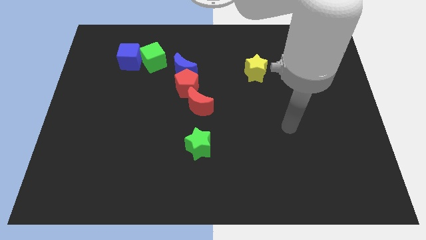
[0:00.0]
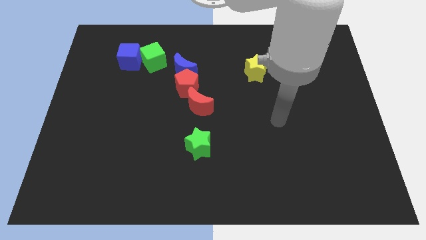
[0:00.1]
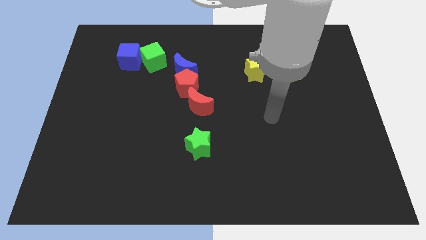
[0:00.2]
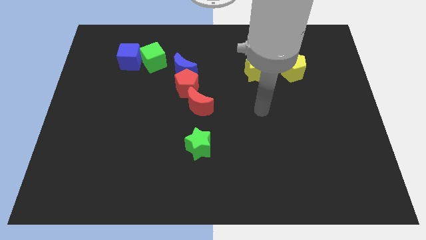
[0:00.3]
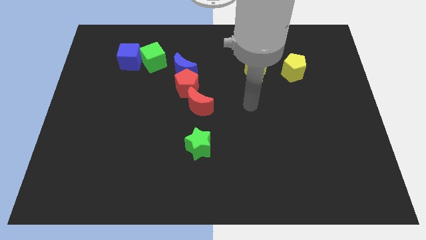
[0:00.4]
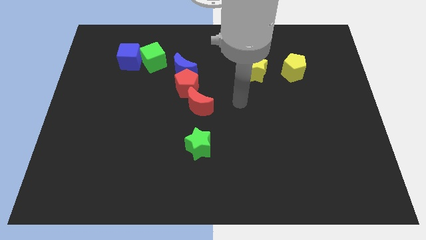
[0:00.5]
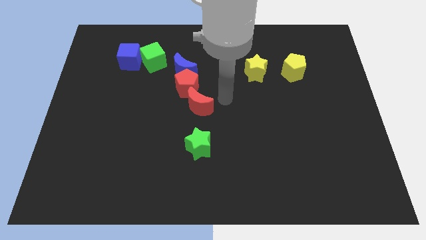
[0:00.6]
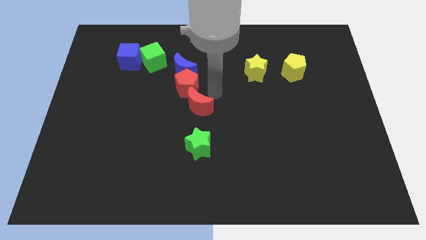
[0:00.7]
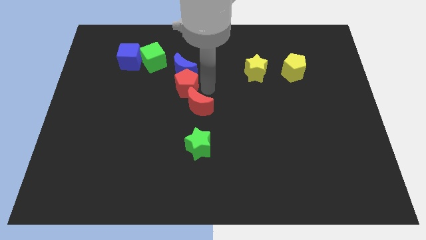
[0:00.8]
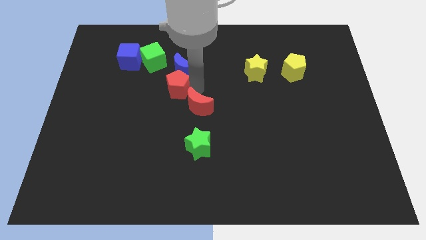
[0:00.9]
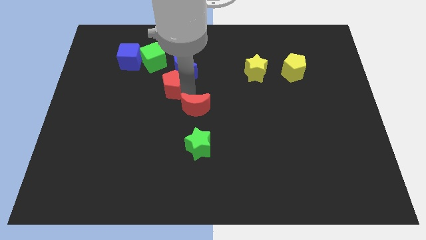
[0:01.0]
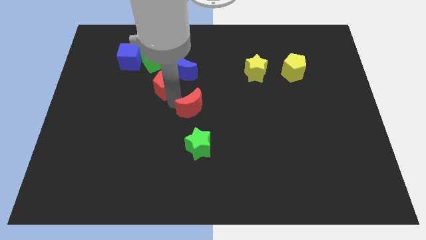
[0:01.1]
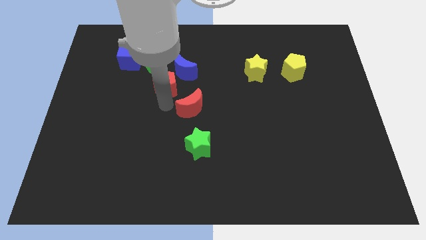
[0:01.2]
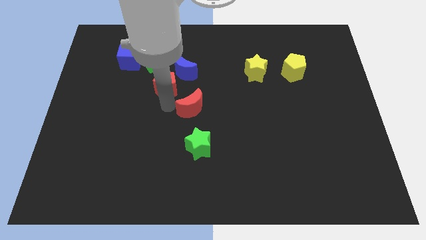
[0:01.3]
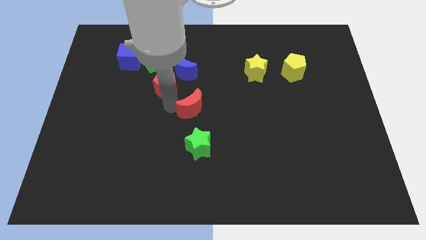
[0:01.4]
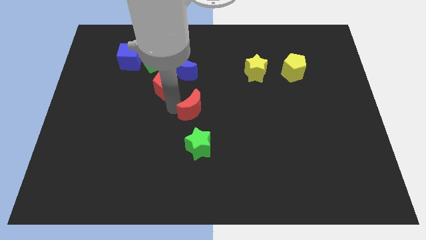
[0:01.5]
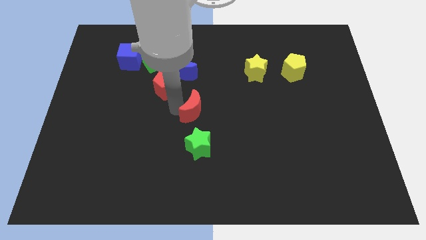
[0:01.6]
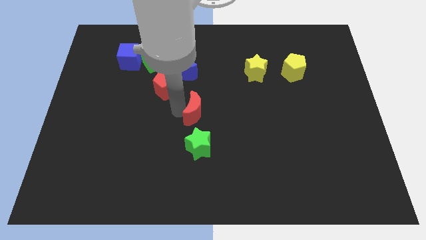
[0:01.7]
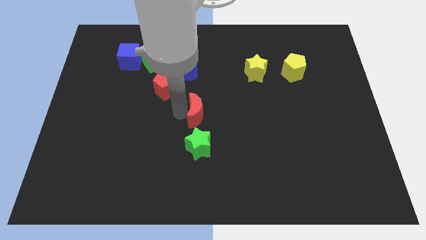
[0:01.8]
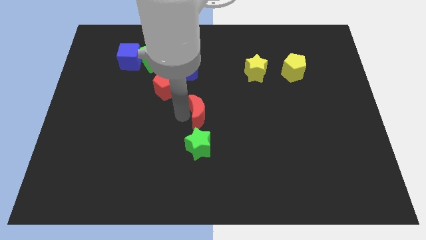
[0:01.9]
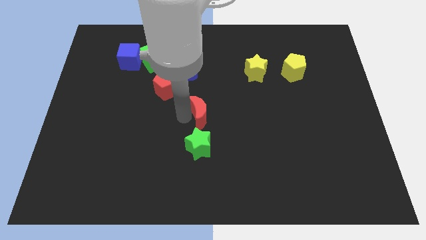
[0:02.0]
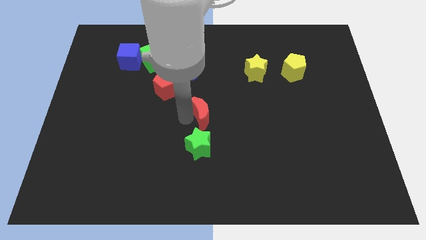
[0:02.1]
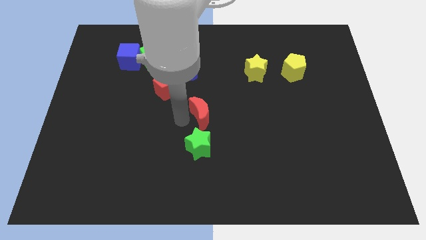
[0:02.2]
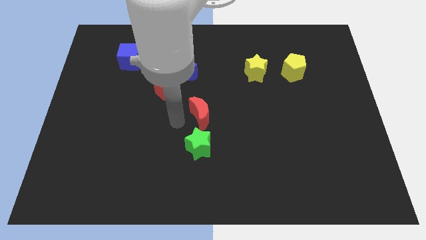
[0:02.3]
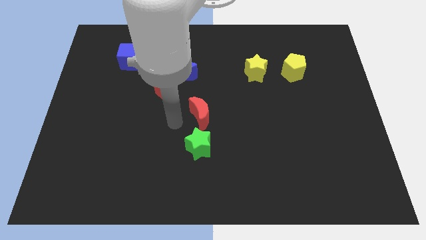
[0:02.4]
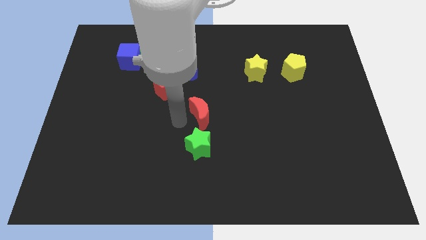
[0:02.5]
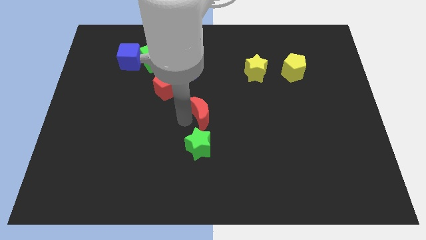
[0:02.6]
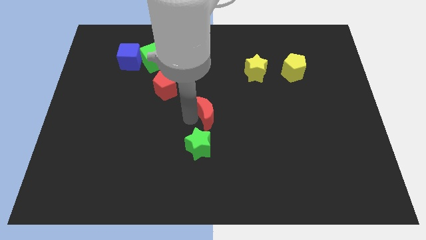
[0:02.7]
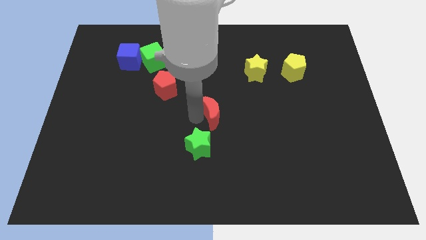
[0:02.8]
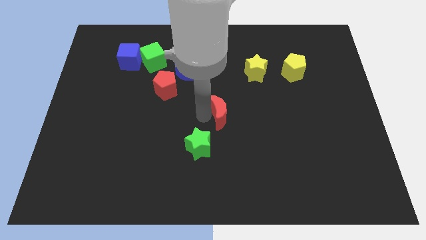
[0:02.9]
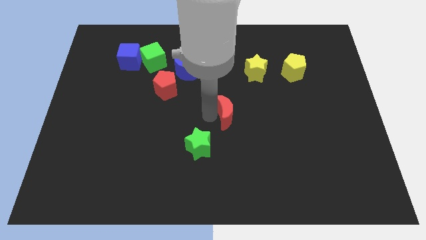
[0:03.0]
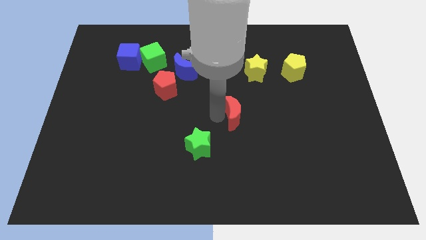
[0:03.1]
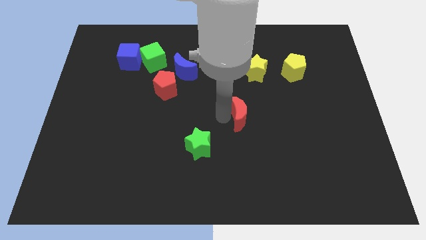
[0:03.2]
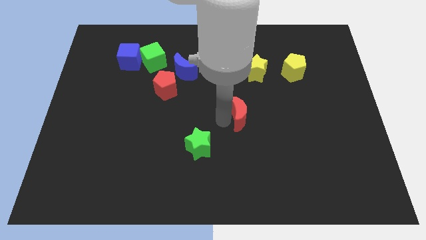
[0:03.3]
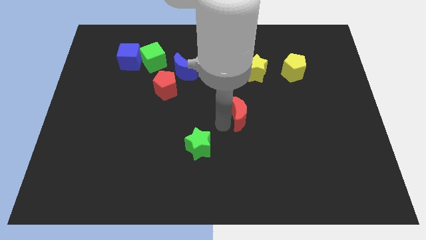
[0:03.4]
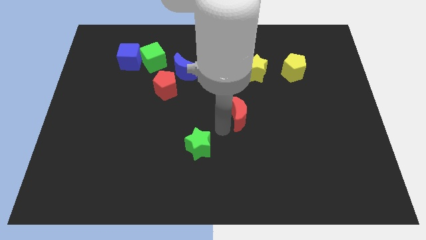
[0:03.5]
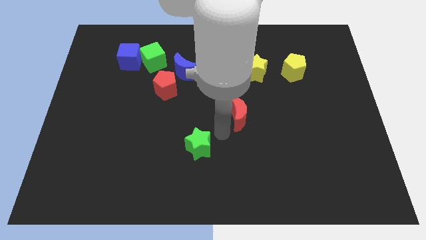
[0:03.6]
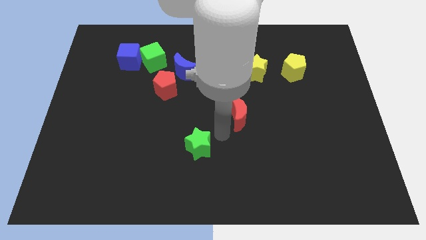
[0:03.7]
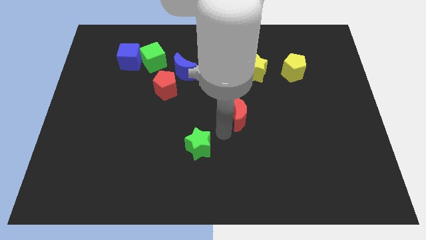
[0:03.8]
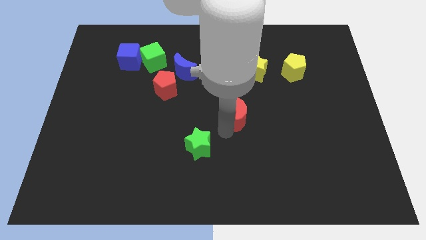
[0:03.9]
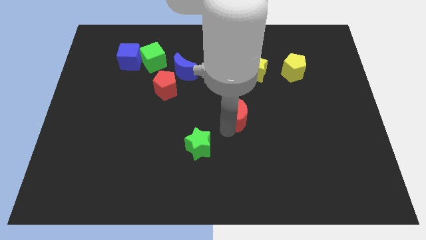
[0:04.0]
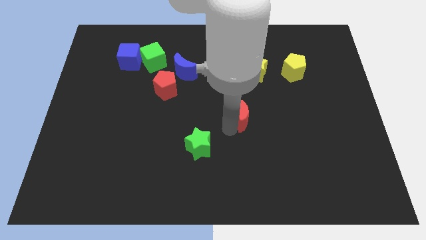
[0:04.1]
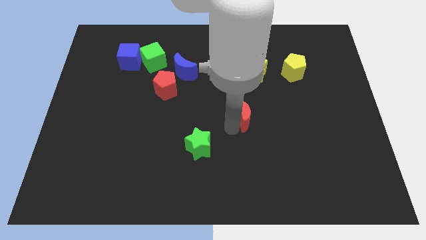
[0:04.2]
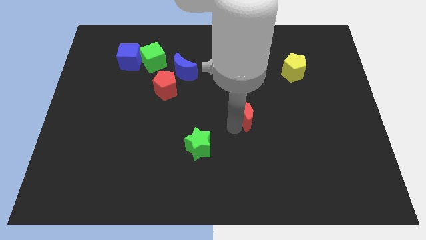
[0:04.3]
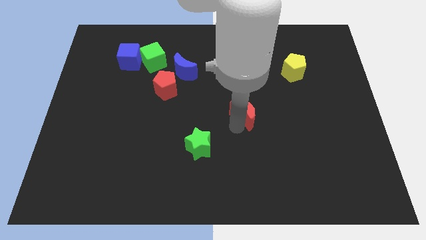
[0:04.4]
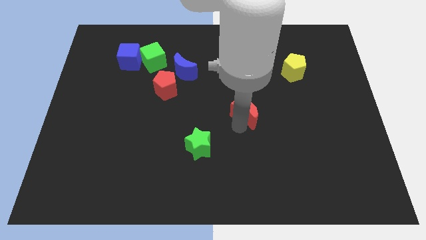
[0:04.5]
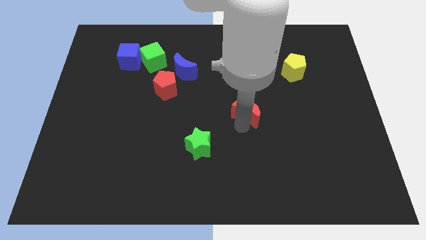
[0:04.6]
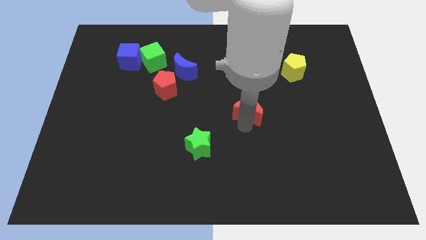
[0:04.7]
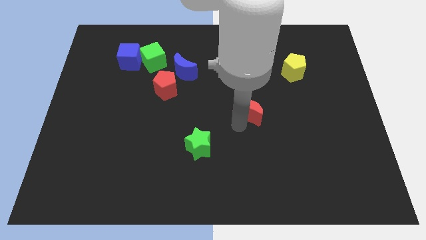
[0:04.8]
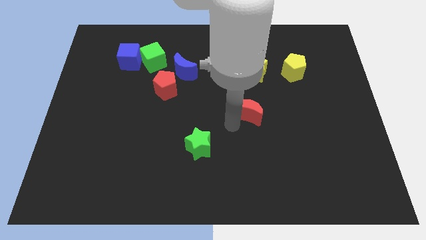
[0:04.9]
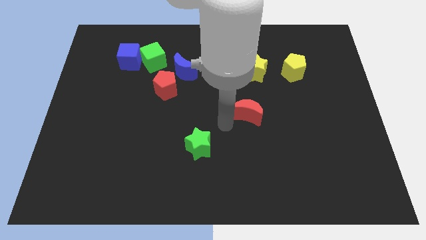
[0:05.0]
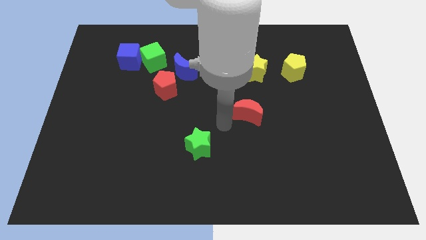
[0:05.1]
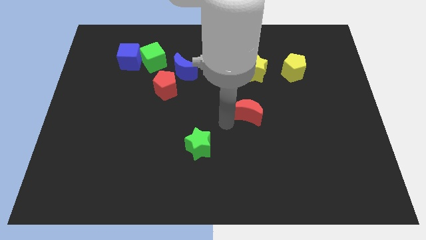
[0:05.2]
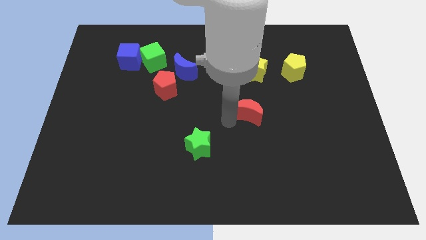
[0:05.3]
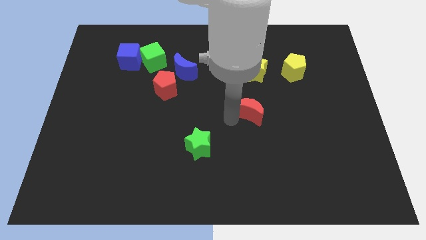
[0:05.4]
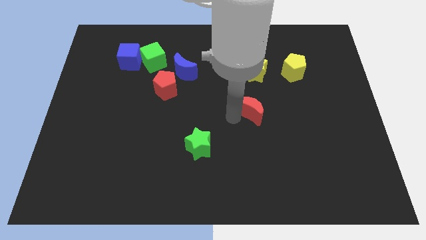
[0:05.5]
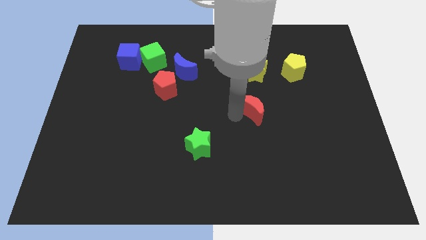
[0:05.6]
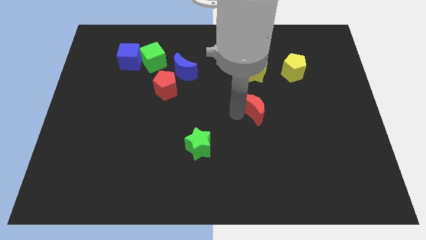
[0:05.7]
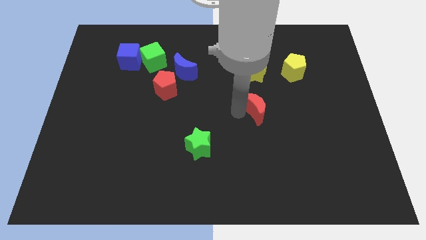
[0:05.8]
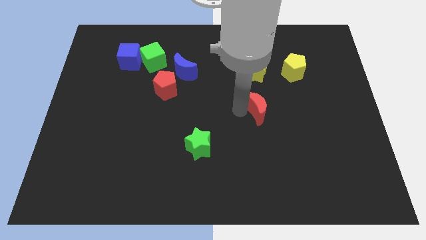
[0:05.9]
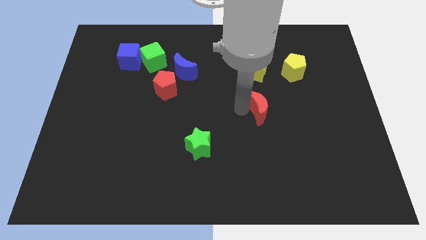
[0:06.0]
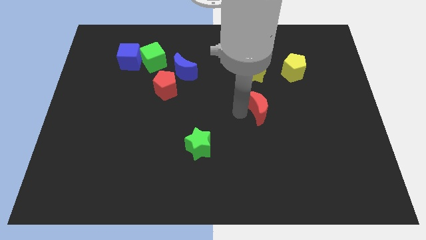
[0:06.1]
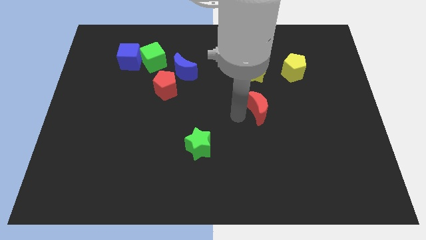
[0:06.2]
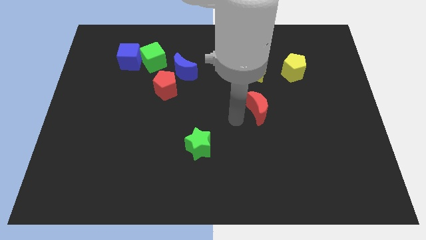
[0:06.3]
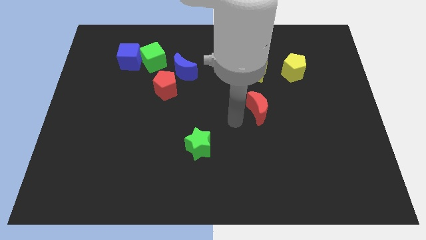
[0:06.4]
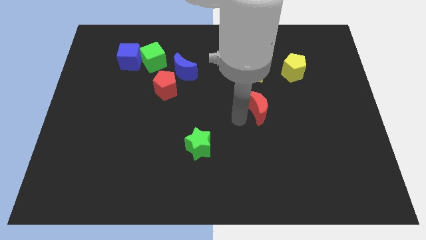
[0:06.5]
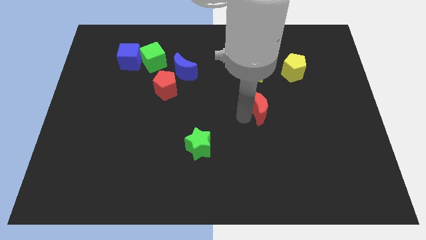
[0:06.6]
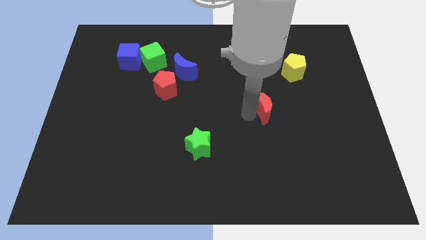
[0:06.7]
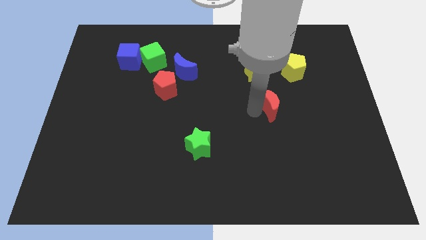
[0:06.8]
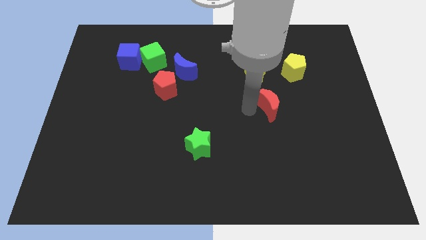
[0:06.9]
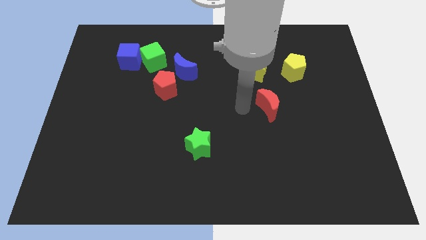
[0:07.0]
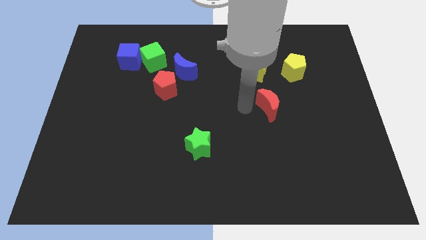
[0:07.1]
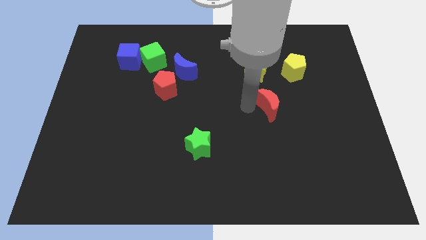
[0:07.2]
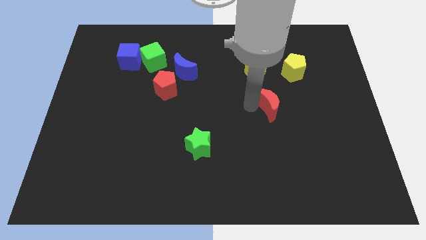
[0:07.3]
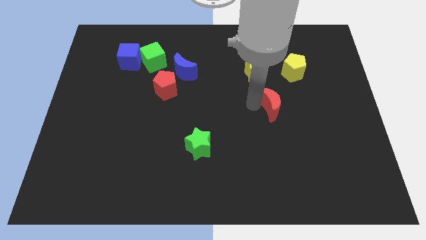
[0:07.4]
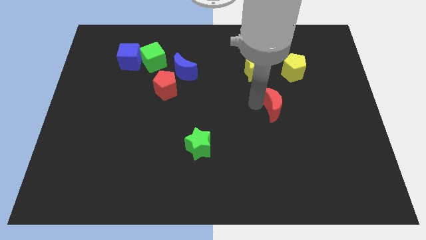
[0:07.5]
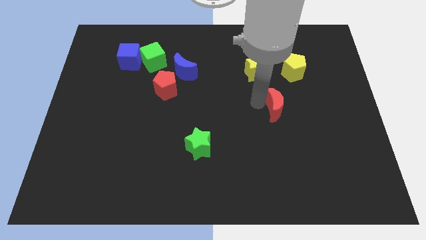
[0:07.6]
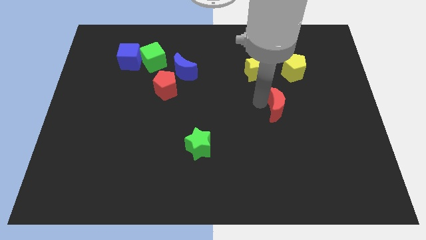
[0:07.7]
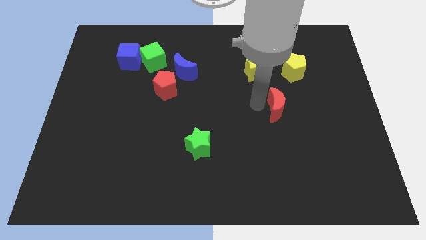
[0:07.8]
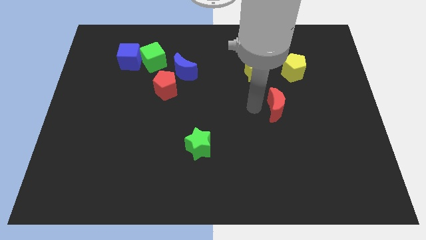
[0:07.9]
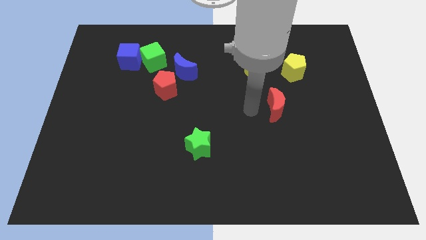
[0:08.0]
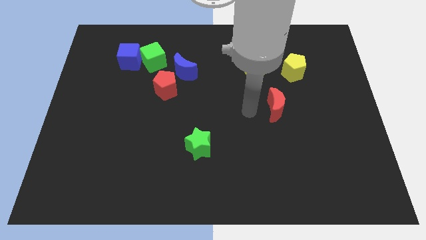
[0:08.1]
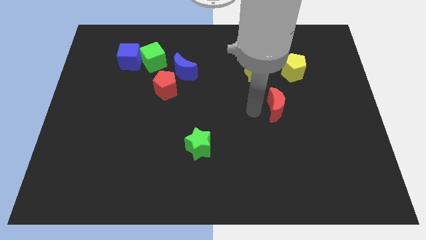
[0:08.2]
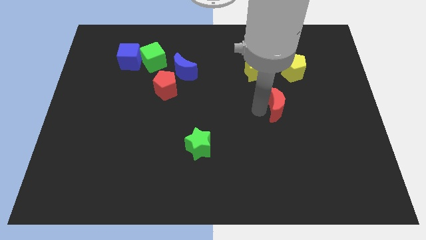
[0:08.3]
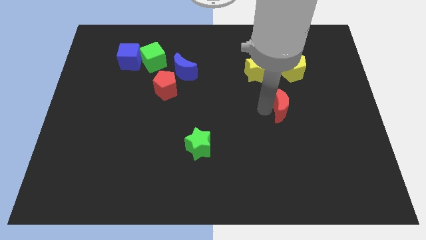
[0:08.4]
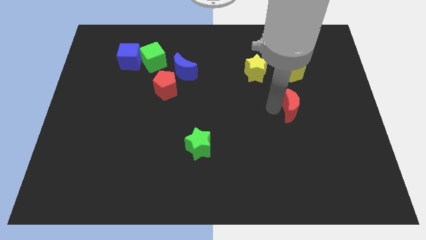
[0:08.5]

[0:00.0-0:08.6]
push the red moon to the right
